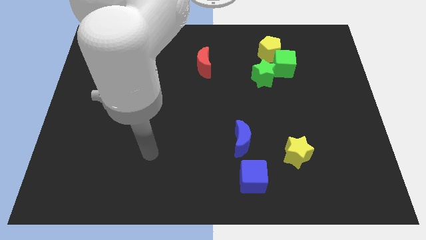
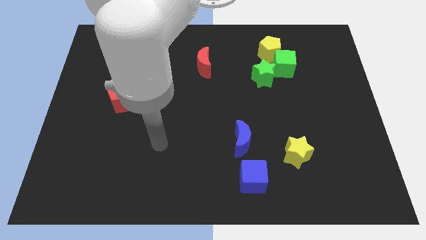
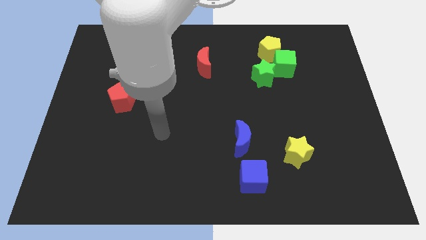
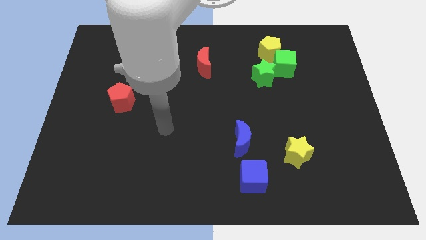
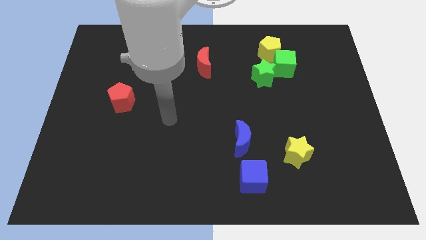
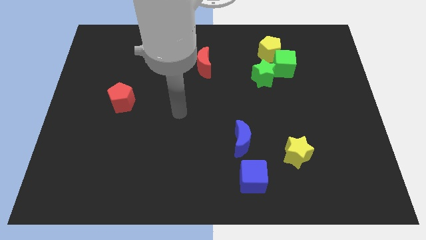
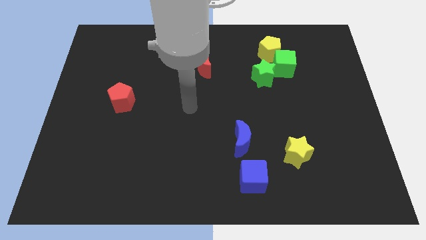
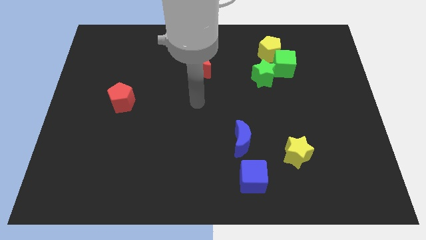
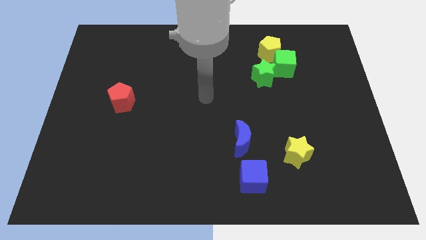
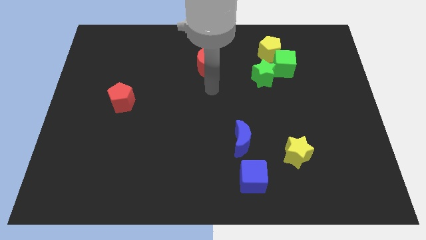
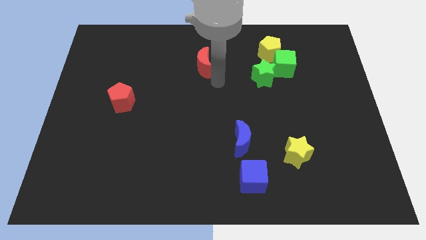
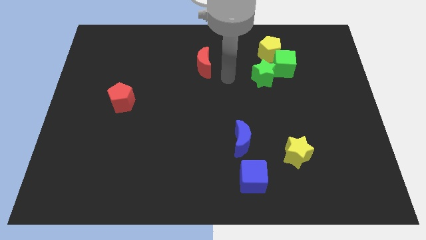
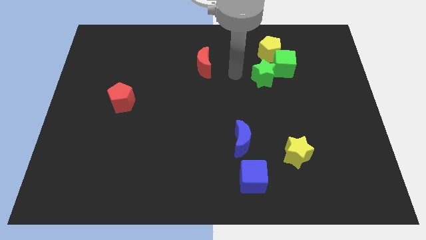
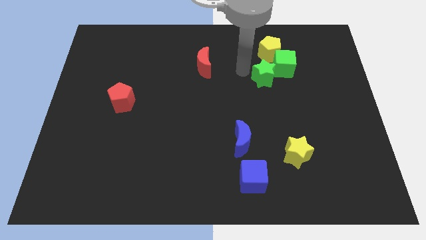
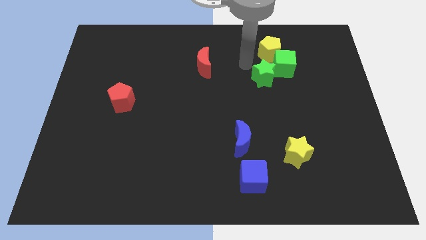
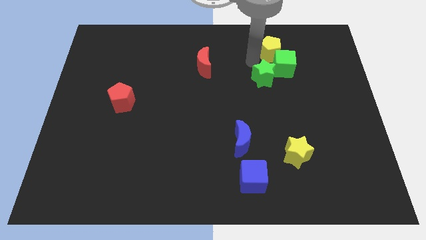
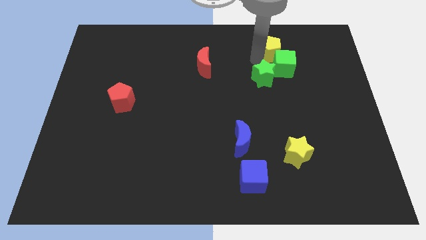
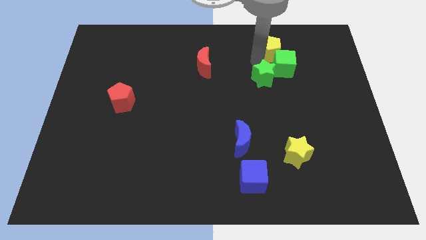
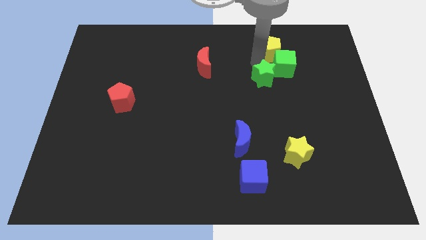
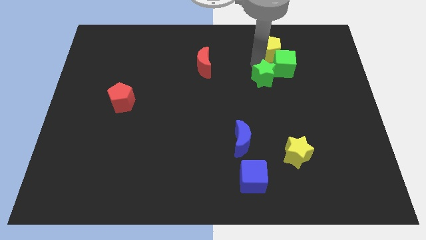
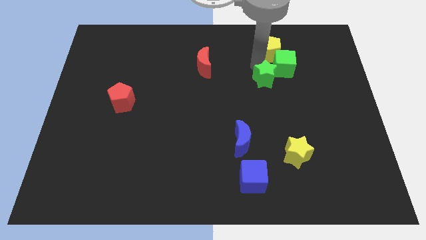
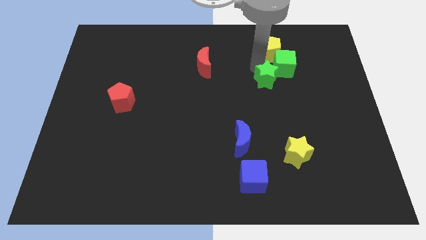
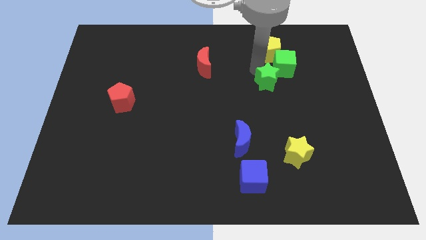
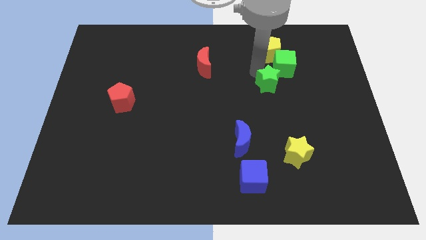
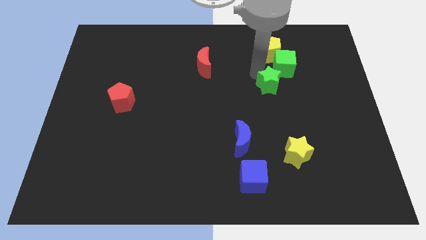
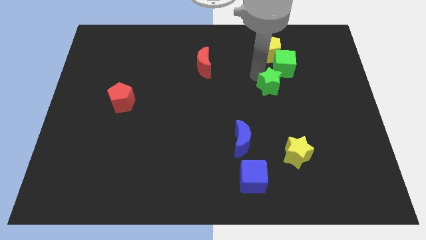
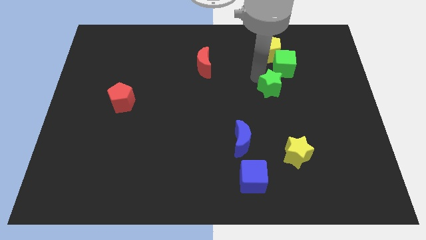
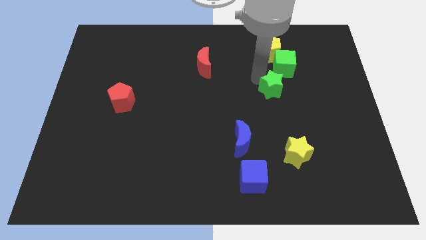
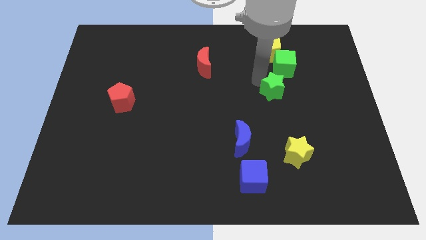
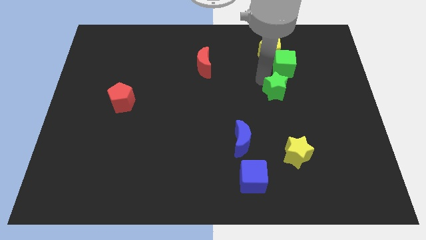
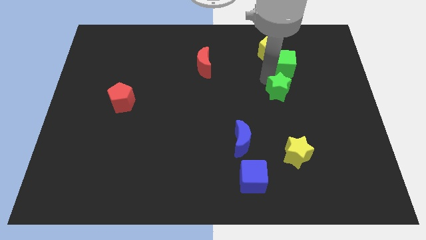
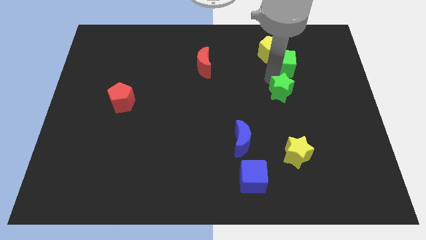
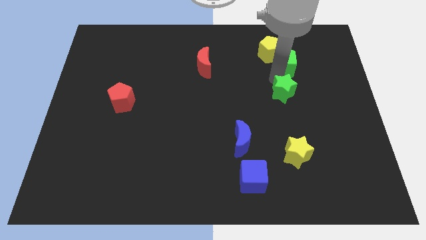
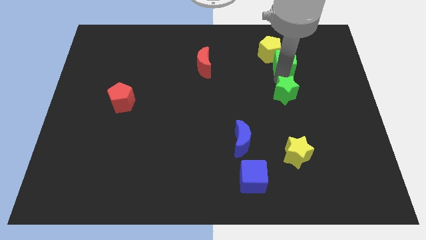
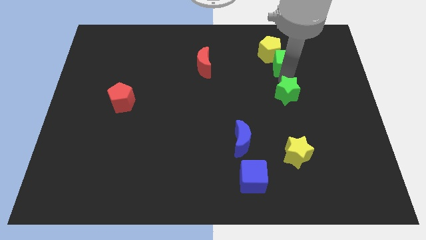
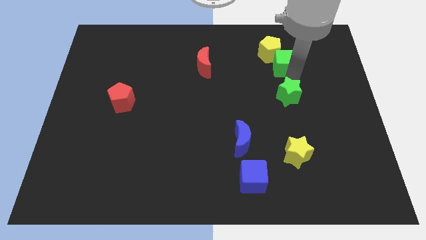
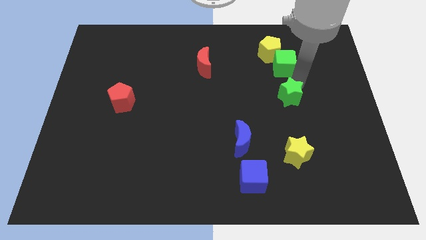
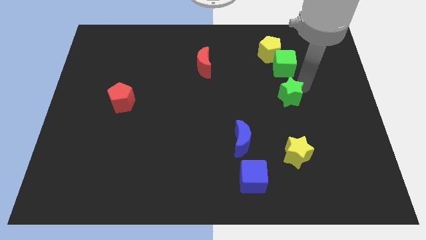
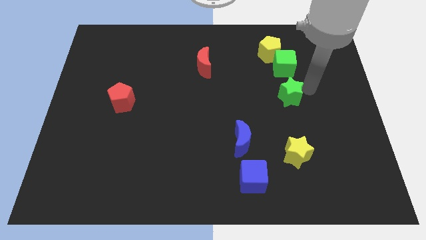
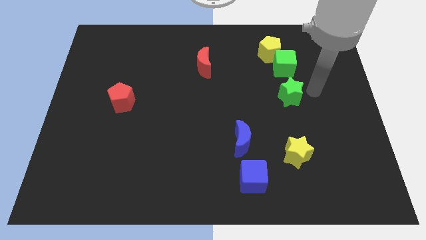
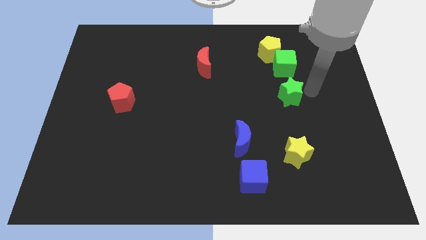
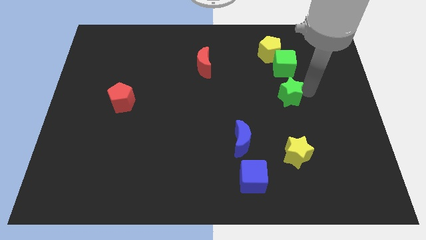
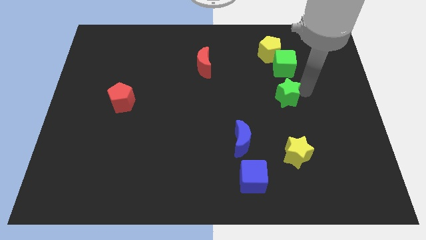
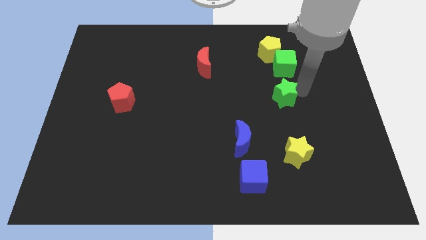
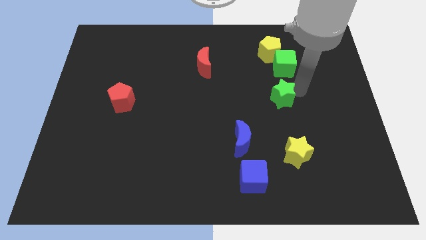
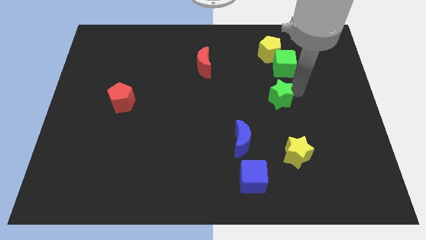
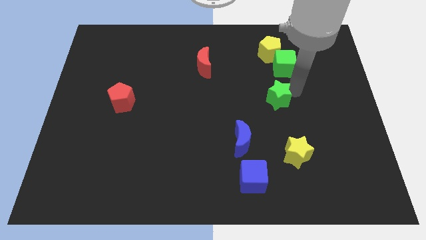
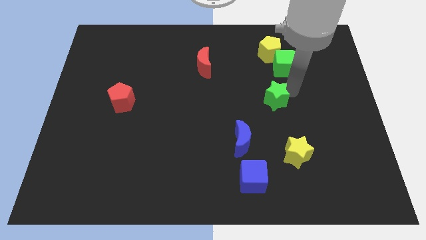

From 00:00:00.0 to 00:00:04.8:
push the green star slightly down

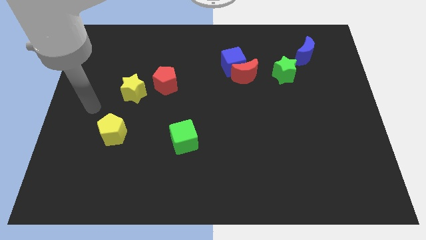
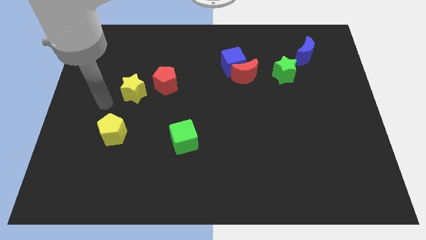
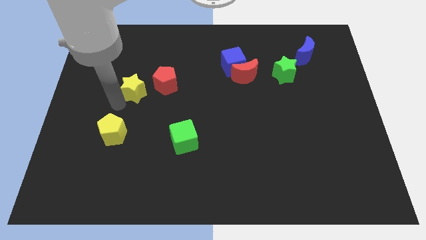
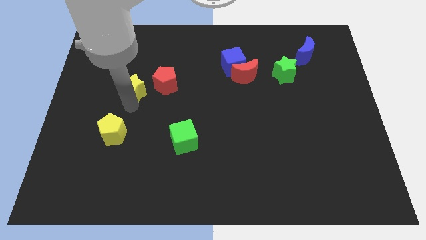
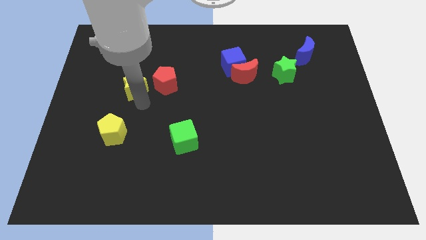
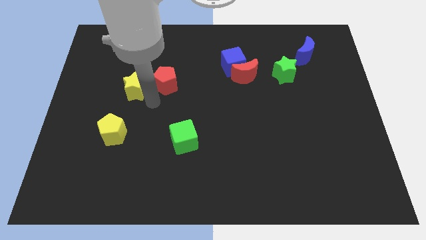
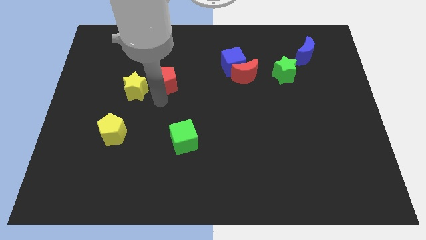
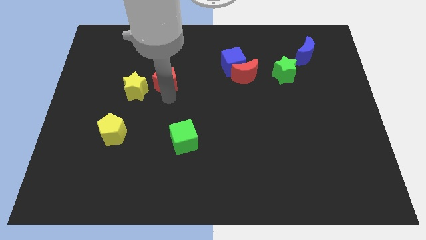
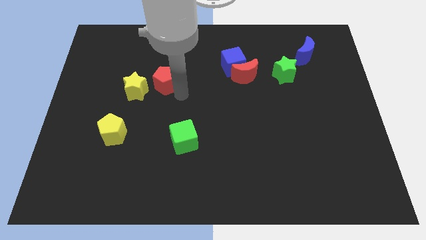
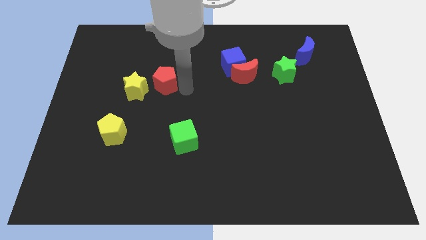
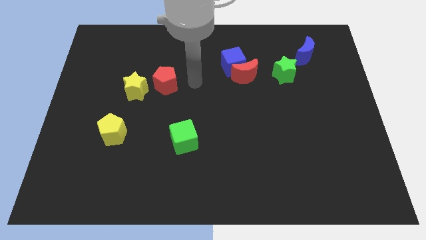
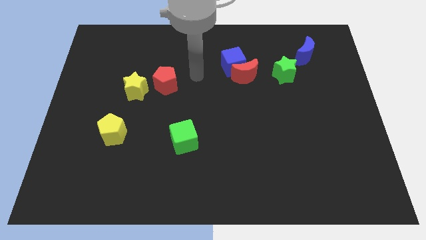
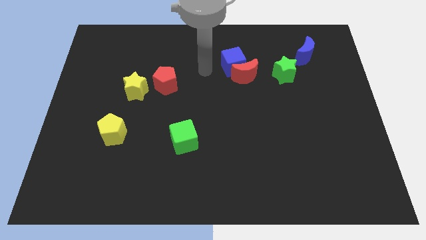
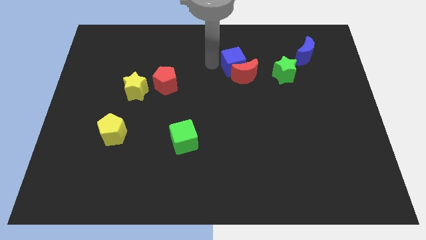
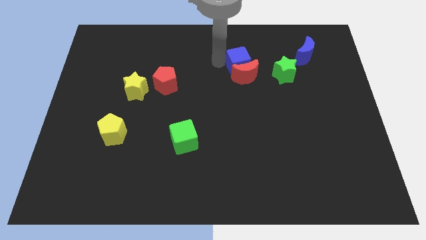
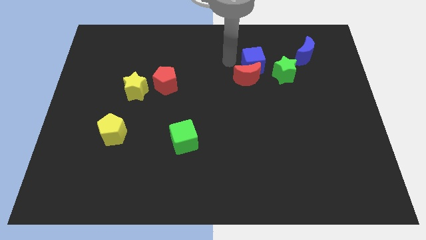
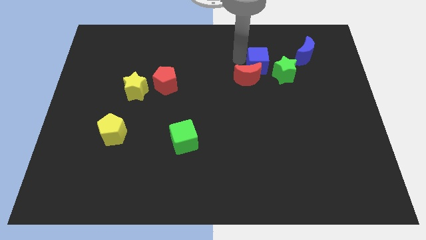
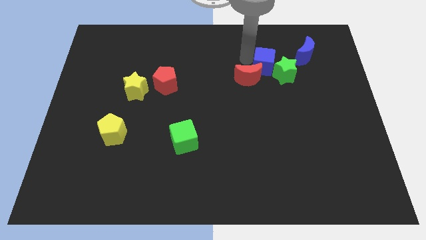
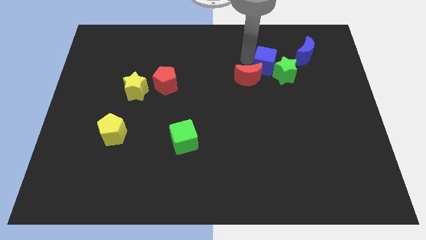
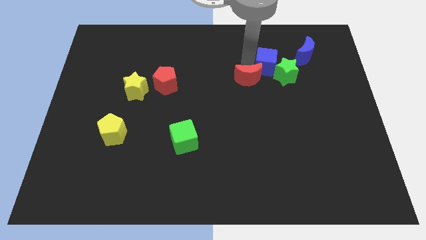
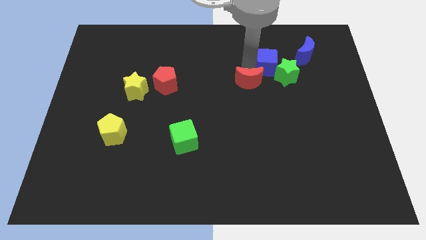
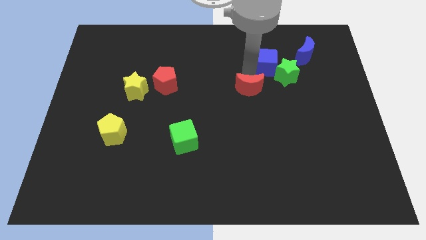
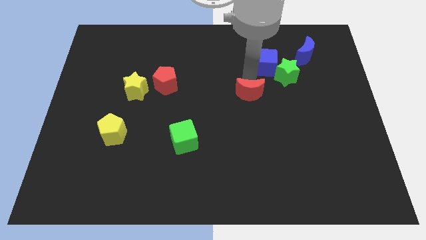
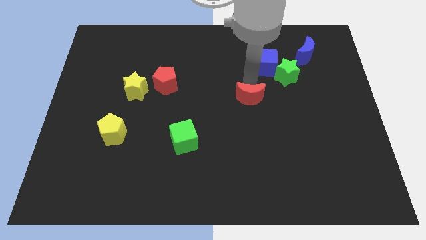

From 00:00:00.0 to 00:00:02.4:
push the red moon somewhat downwards

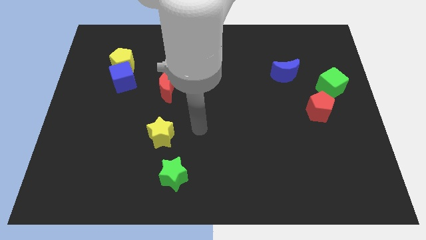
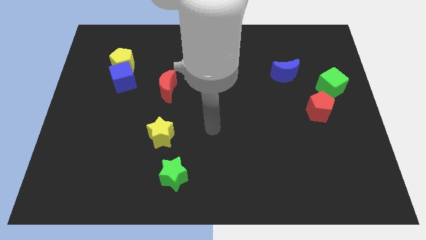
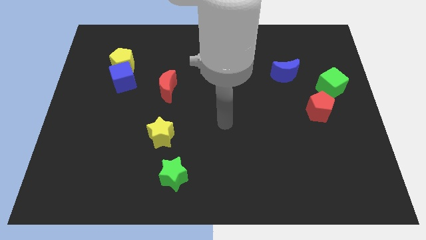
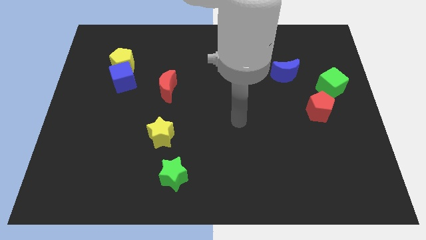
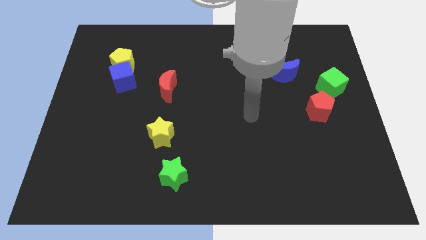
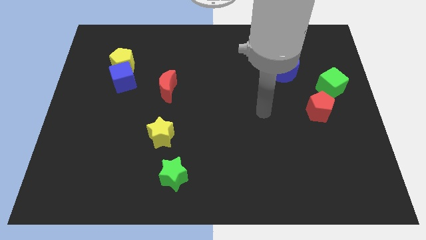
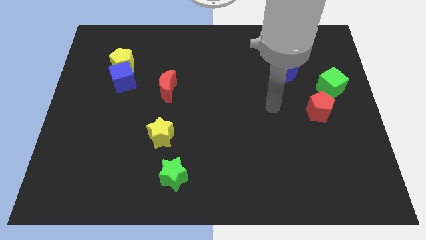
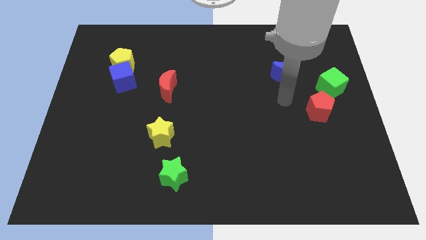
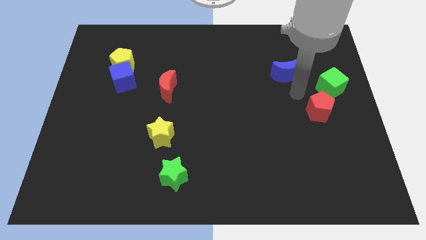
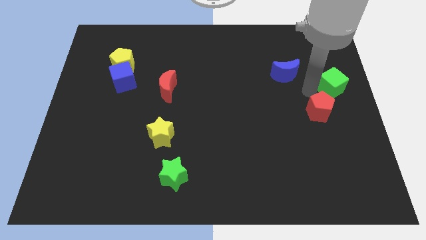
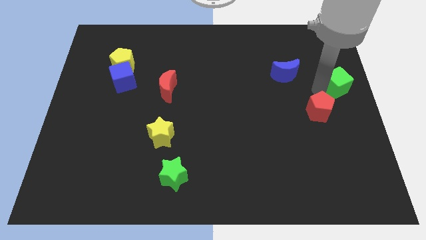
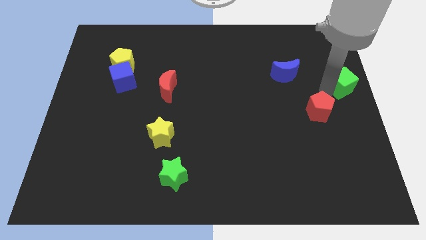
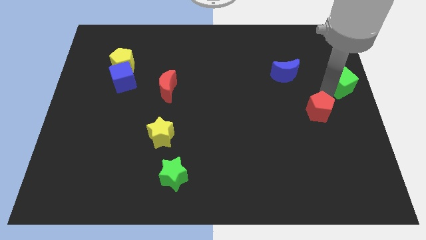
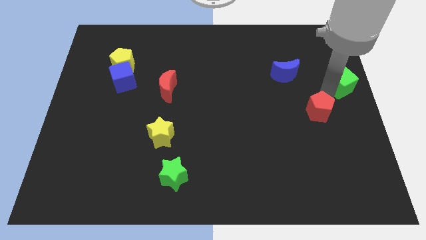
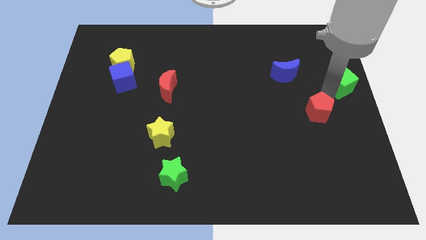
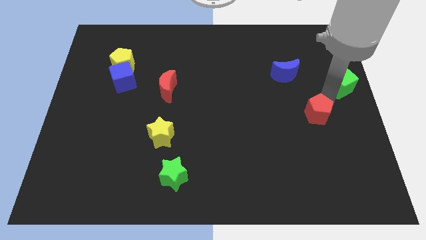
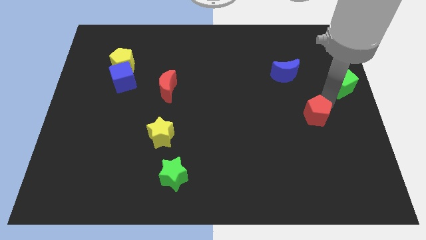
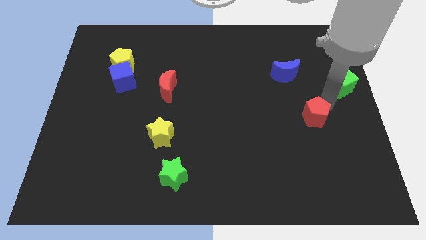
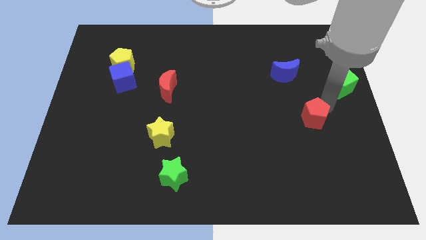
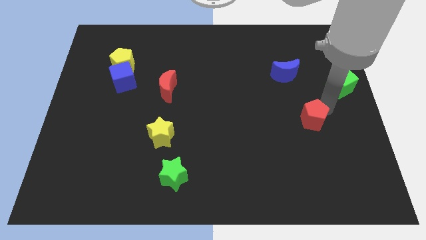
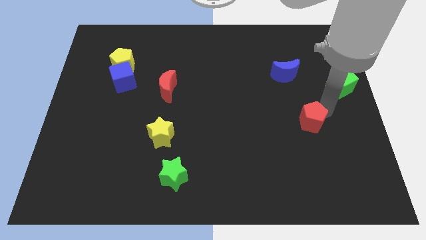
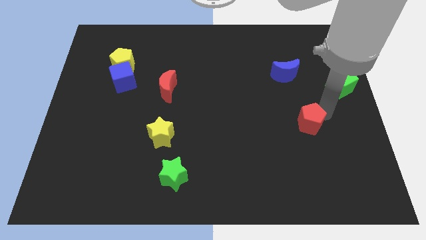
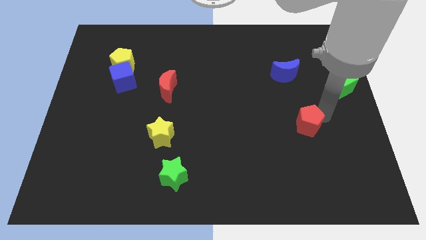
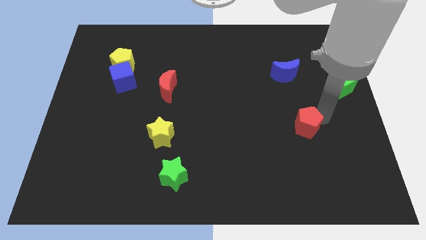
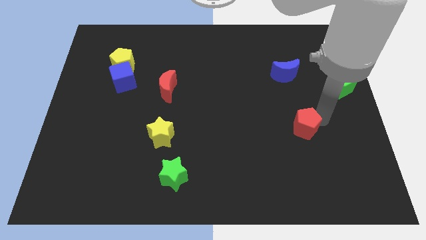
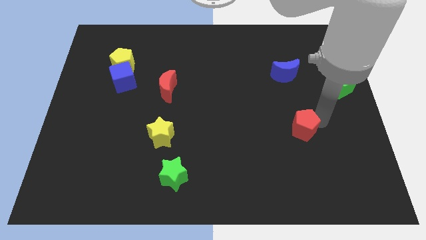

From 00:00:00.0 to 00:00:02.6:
slightly move the red pentagon down and to the left diagonally
